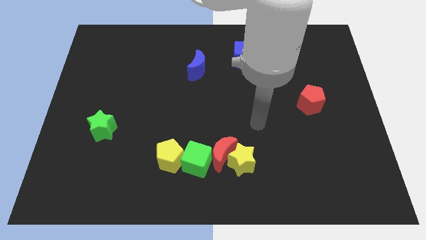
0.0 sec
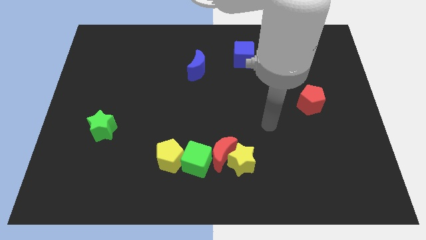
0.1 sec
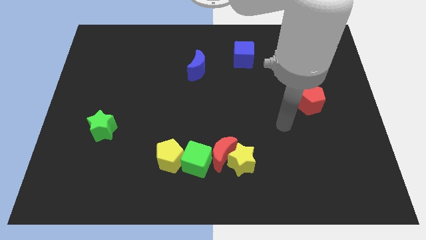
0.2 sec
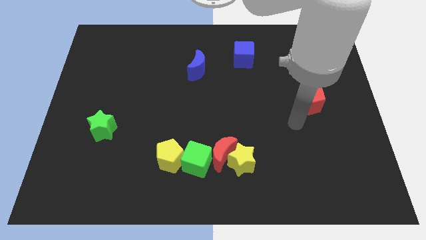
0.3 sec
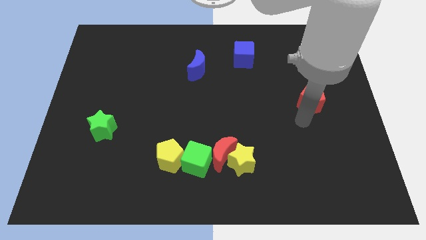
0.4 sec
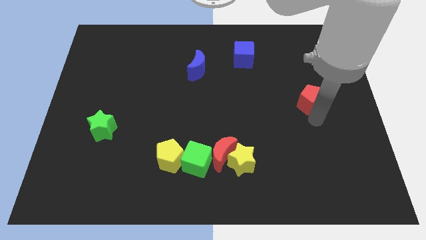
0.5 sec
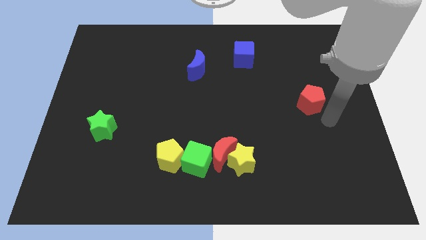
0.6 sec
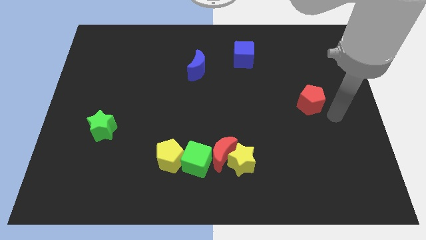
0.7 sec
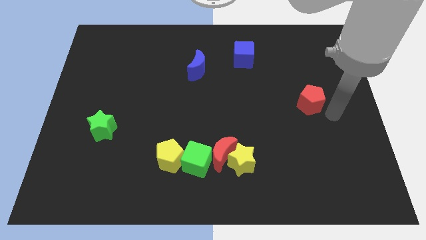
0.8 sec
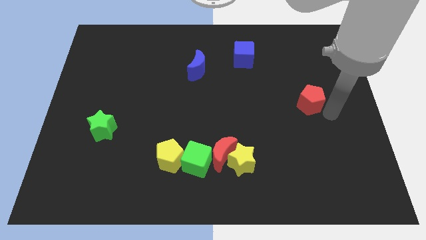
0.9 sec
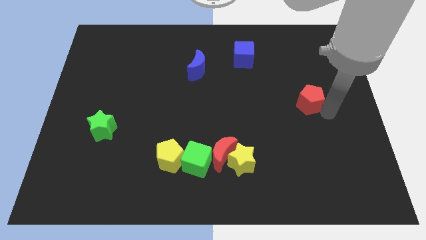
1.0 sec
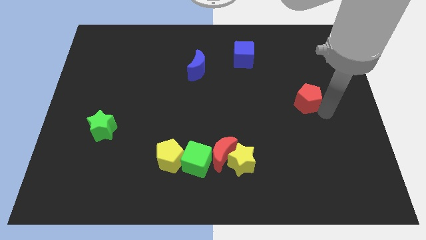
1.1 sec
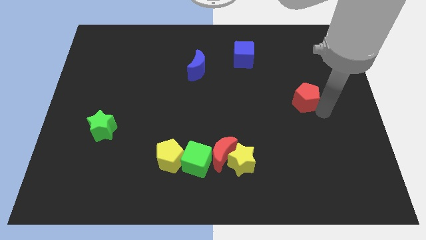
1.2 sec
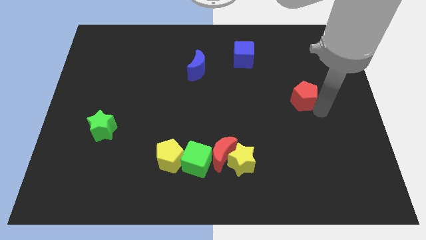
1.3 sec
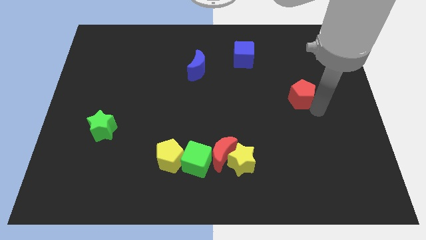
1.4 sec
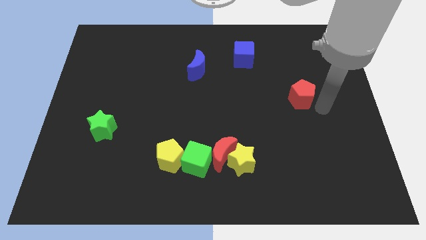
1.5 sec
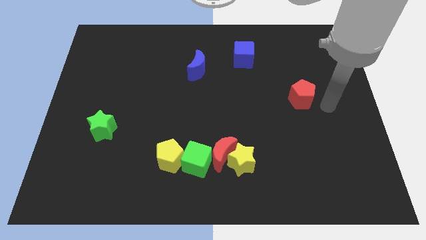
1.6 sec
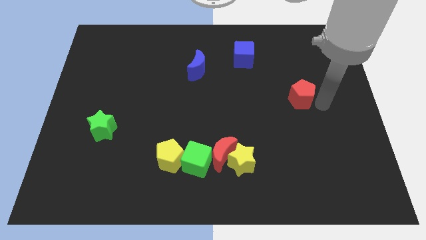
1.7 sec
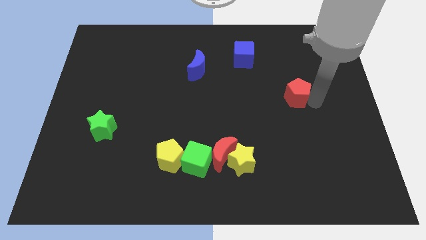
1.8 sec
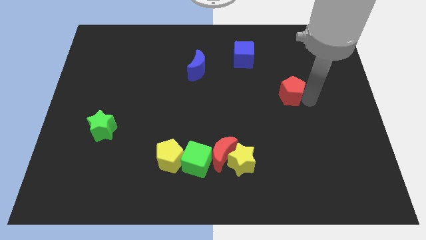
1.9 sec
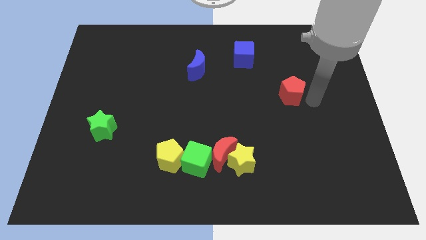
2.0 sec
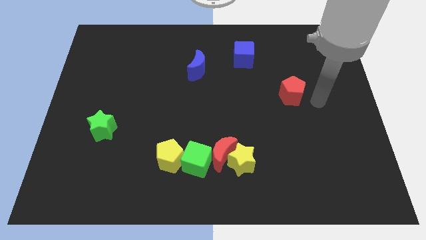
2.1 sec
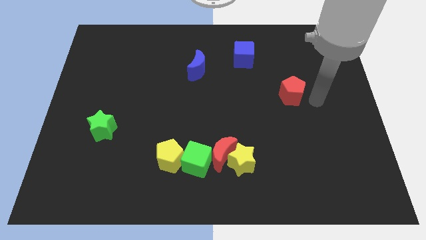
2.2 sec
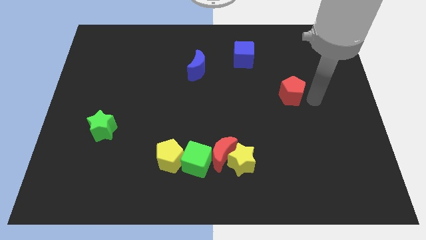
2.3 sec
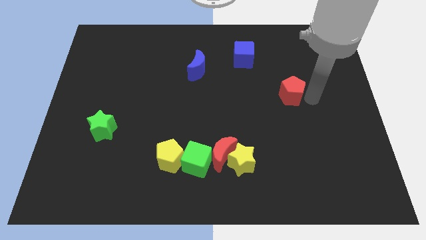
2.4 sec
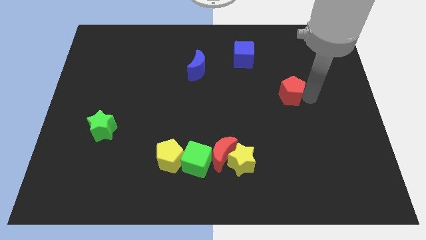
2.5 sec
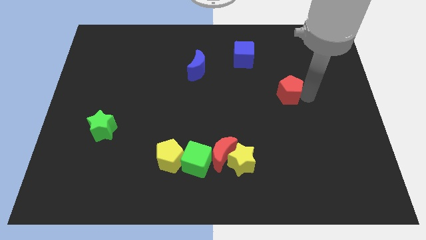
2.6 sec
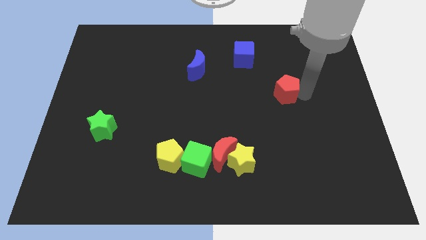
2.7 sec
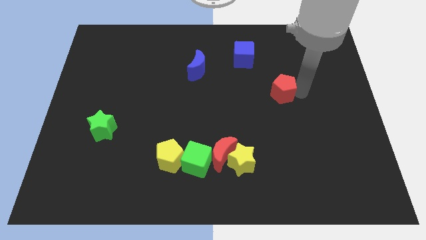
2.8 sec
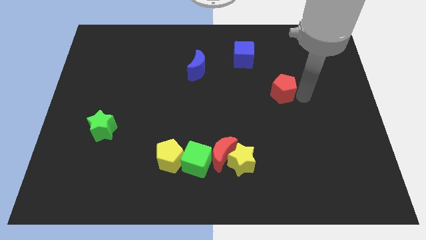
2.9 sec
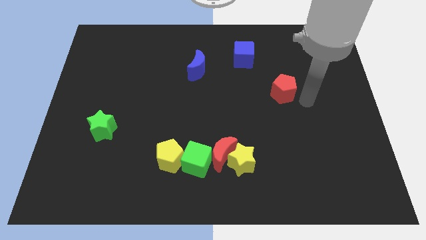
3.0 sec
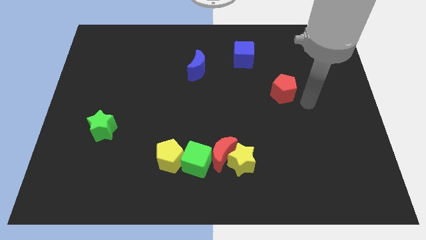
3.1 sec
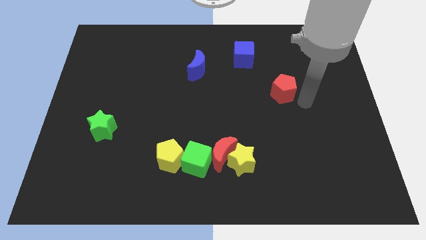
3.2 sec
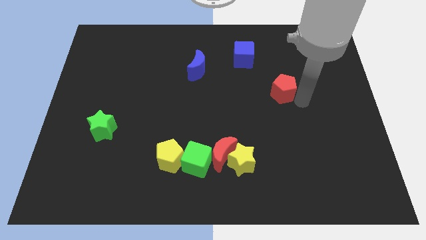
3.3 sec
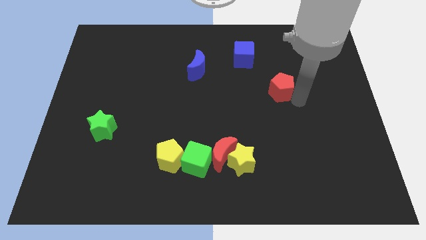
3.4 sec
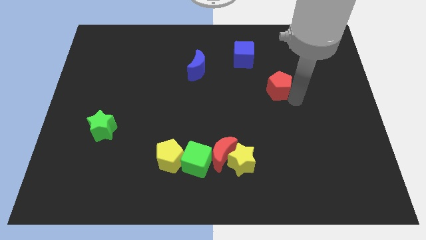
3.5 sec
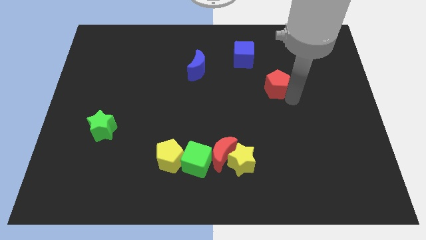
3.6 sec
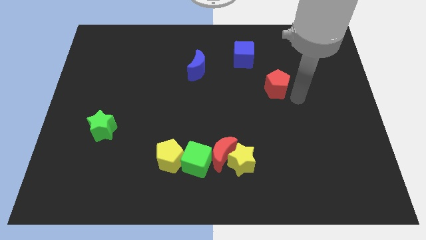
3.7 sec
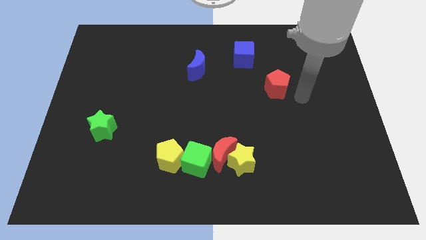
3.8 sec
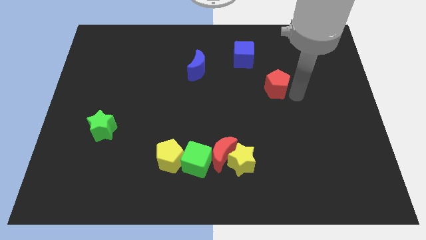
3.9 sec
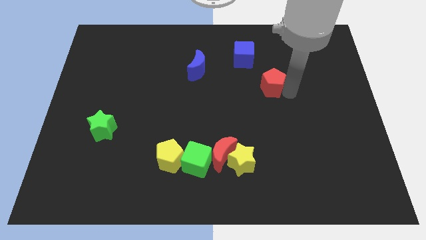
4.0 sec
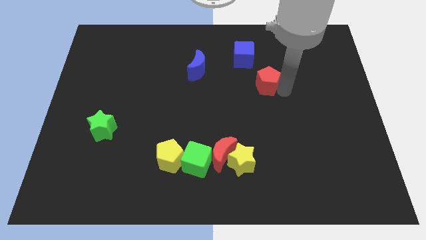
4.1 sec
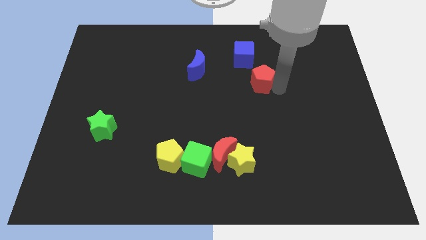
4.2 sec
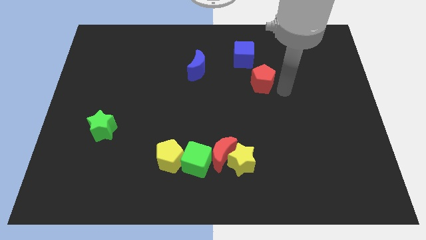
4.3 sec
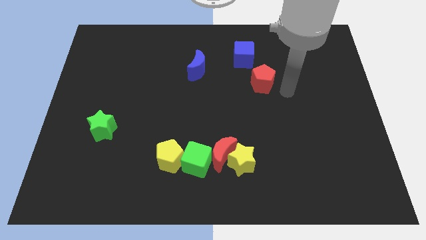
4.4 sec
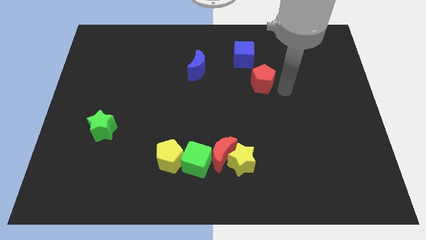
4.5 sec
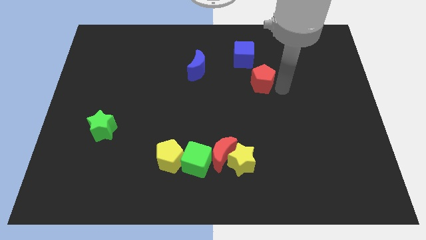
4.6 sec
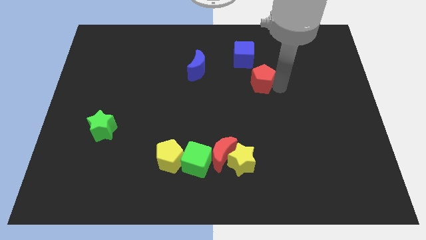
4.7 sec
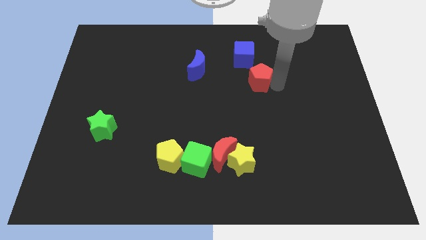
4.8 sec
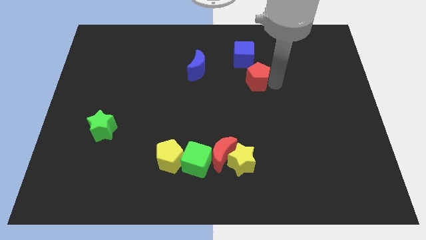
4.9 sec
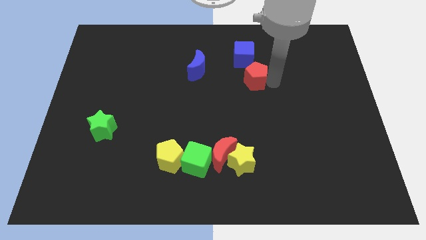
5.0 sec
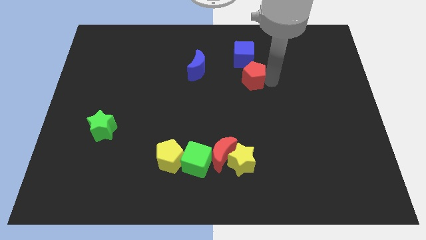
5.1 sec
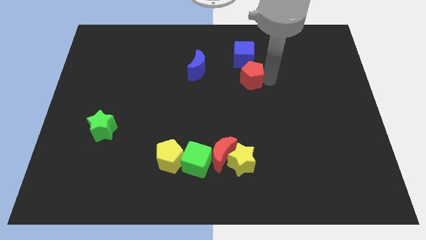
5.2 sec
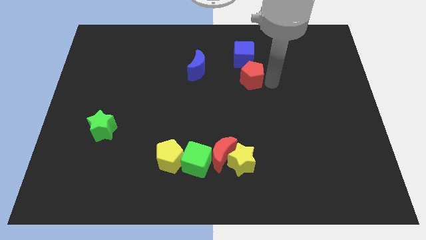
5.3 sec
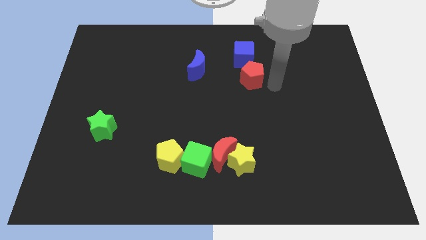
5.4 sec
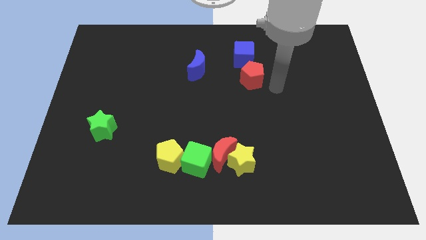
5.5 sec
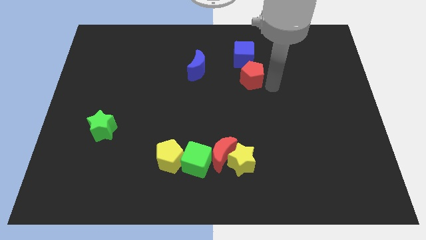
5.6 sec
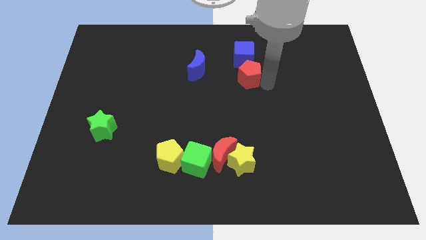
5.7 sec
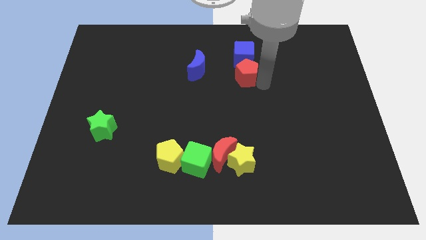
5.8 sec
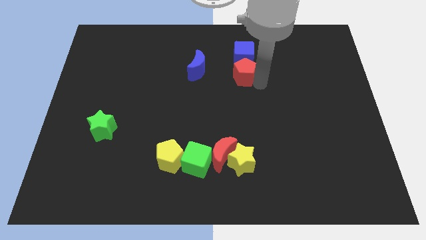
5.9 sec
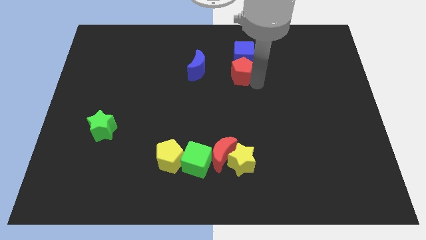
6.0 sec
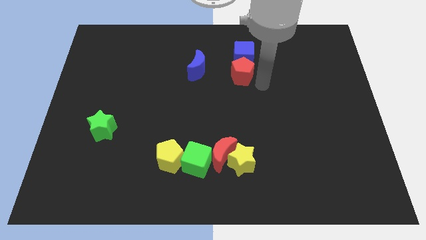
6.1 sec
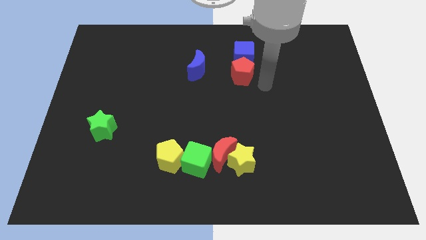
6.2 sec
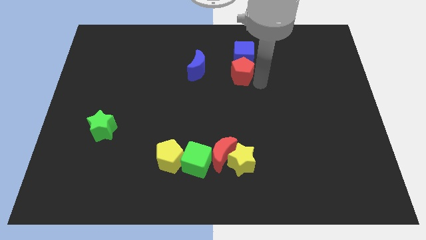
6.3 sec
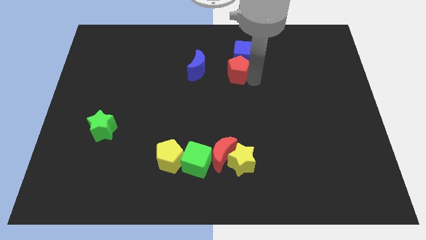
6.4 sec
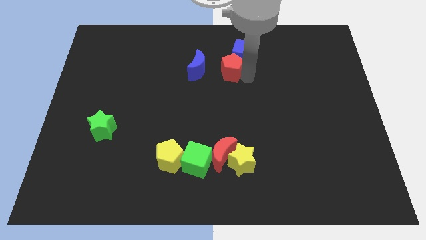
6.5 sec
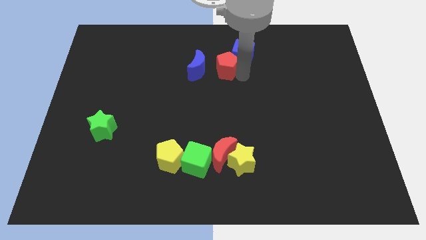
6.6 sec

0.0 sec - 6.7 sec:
put the red pentagon to the left side of the blue cube

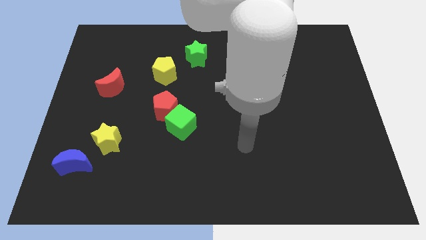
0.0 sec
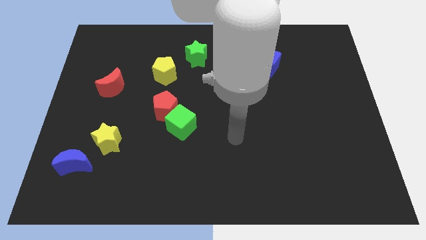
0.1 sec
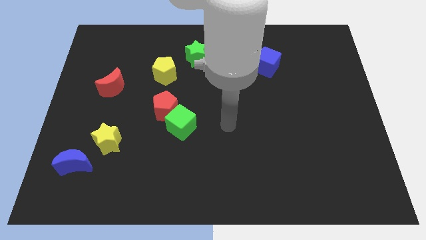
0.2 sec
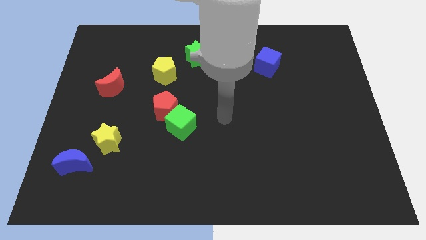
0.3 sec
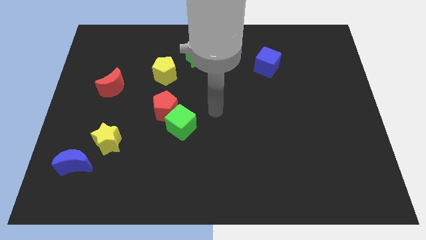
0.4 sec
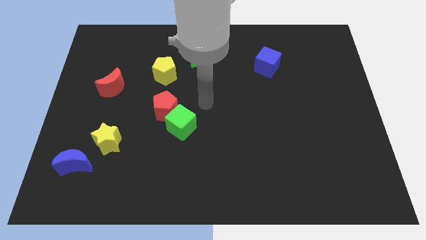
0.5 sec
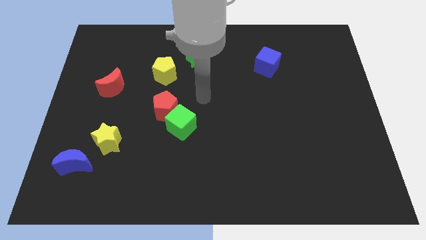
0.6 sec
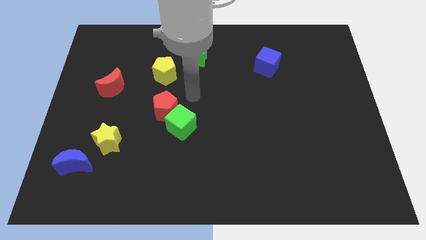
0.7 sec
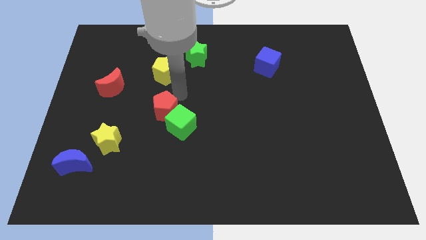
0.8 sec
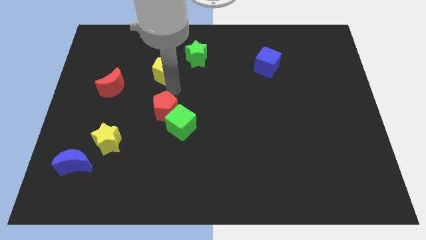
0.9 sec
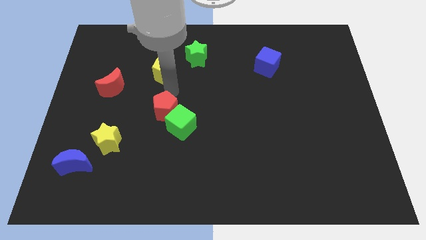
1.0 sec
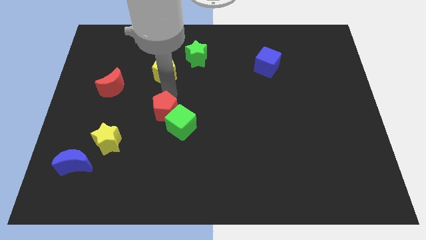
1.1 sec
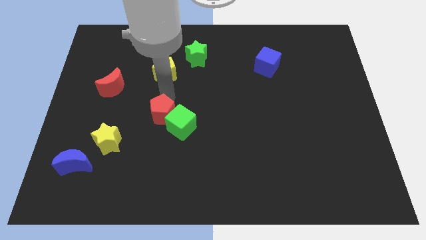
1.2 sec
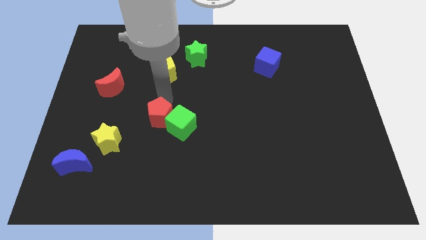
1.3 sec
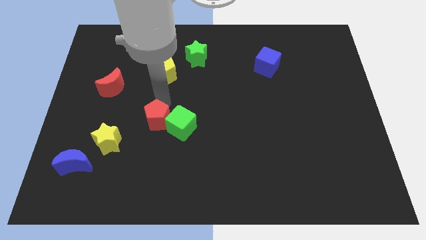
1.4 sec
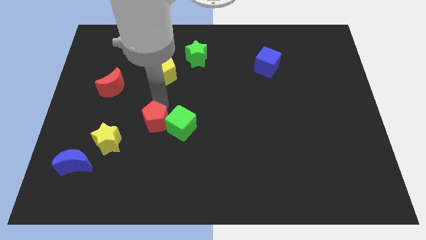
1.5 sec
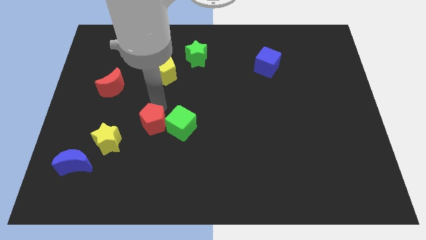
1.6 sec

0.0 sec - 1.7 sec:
push the red pentagon to the bottom left of the green cube

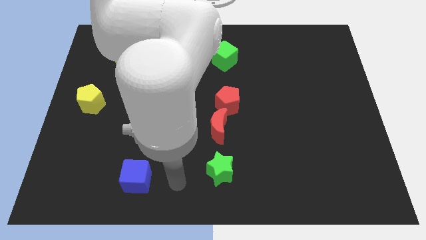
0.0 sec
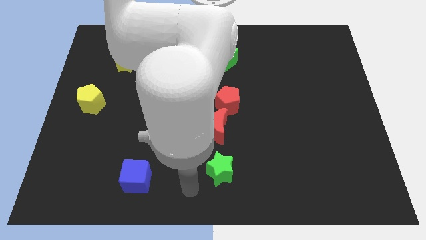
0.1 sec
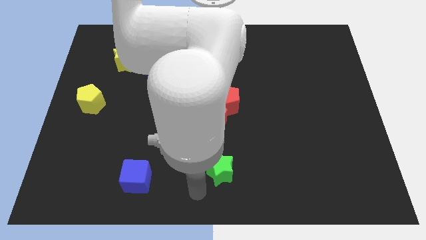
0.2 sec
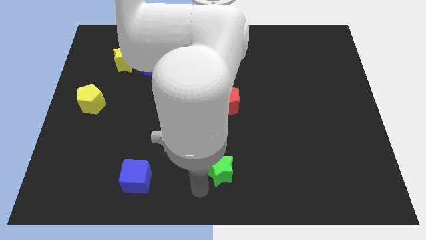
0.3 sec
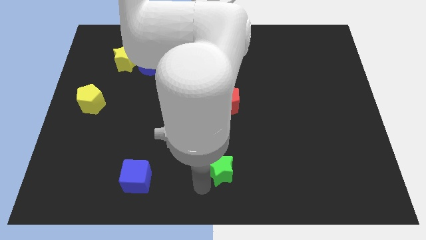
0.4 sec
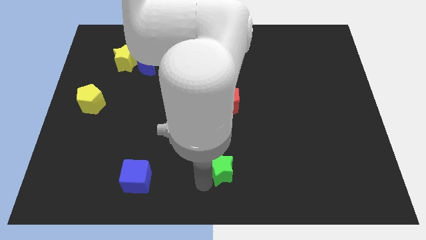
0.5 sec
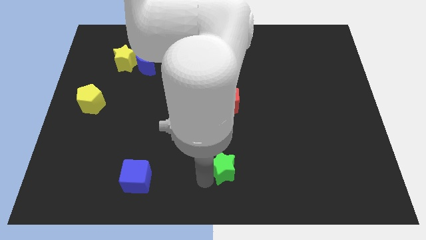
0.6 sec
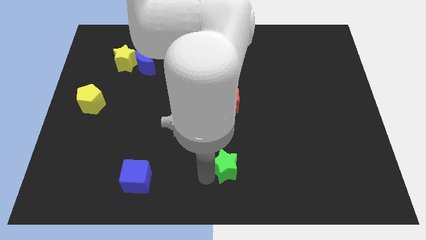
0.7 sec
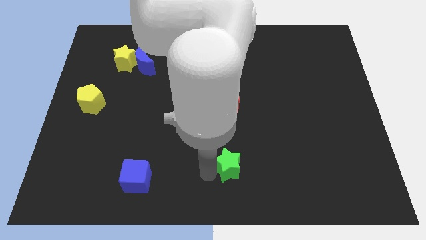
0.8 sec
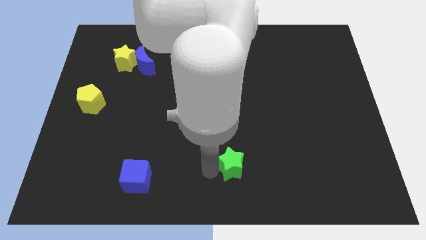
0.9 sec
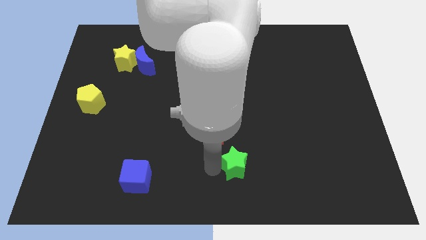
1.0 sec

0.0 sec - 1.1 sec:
move the green star to the bottom right of the red moon
